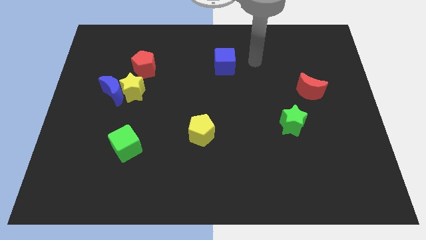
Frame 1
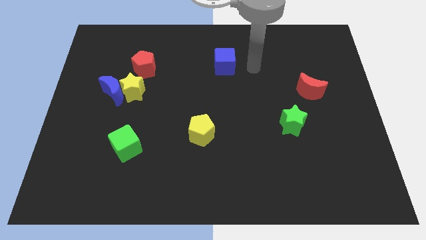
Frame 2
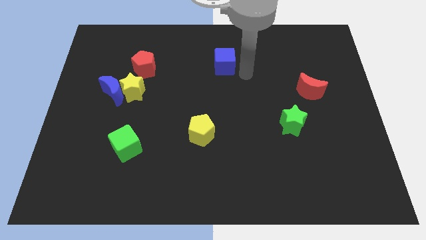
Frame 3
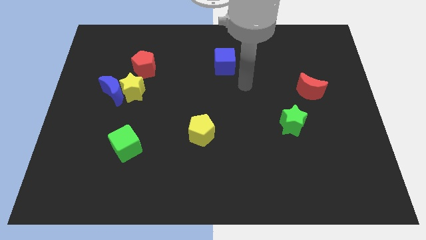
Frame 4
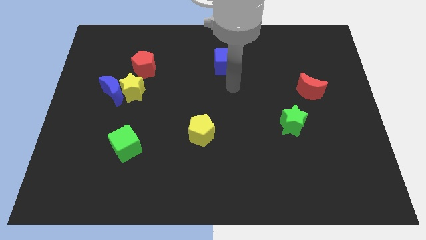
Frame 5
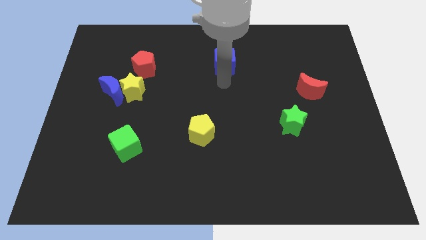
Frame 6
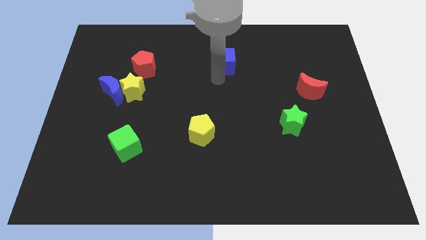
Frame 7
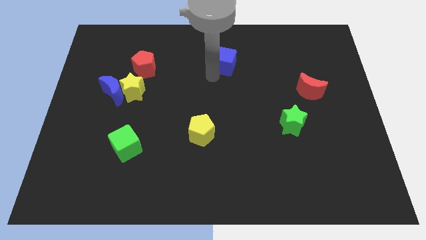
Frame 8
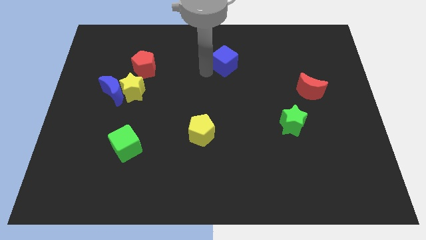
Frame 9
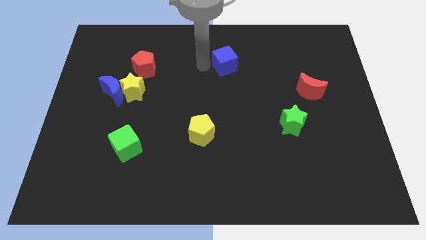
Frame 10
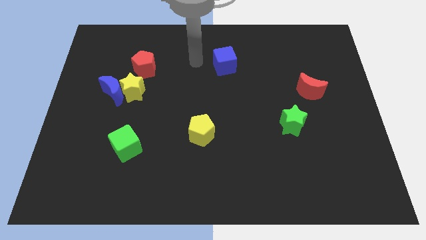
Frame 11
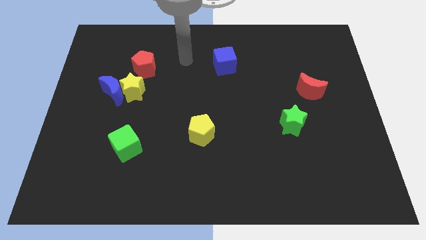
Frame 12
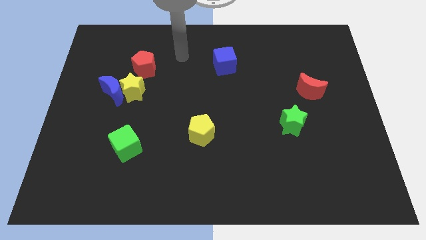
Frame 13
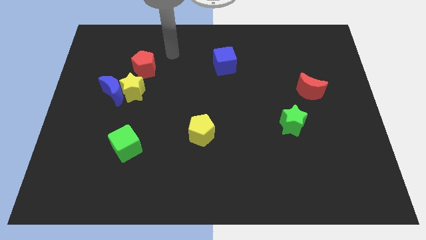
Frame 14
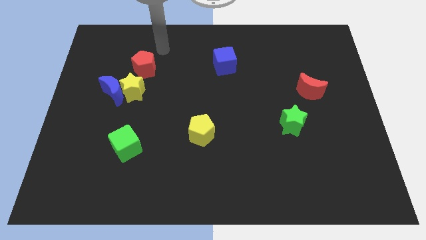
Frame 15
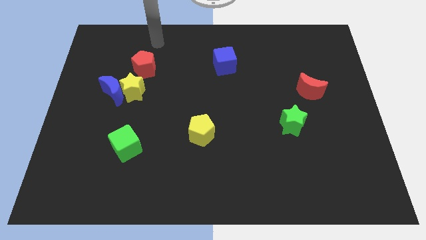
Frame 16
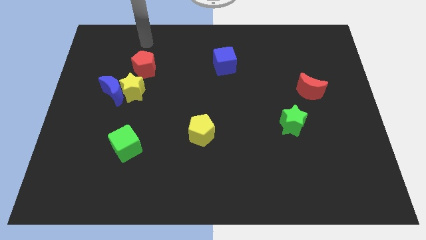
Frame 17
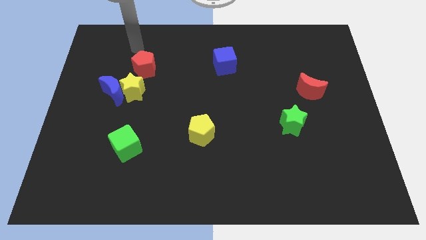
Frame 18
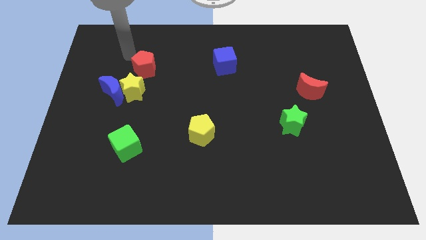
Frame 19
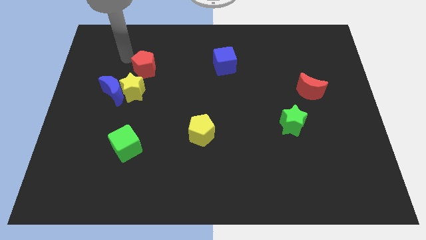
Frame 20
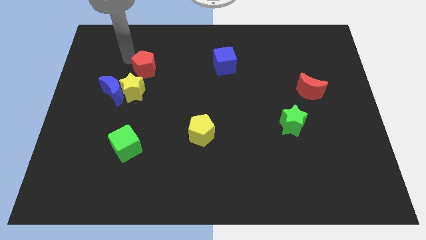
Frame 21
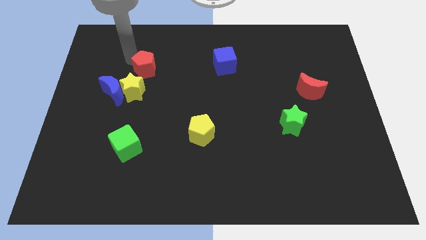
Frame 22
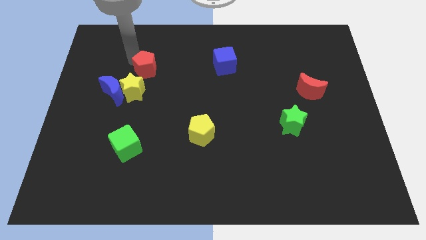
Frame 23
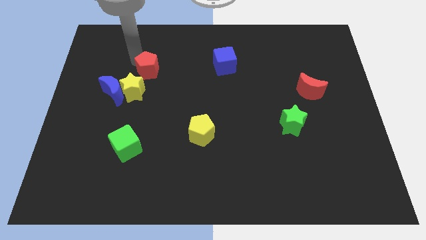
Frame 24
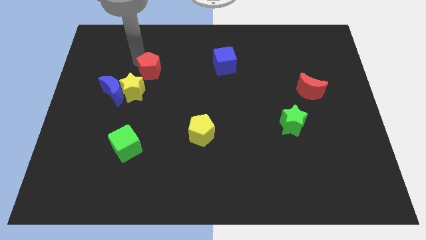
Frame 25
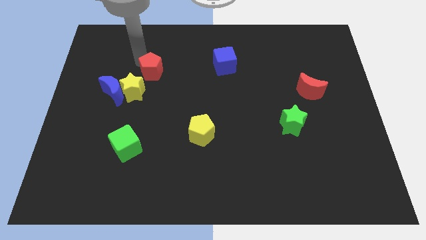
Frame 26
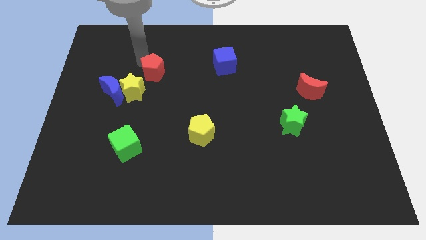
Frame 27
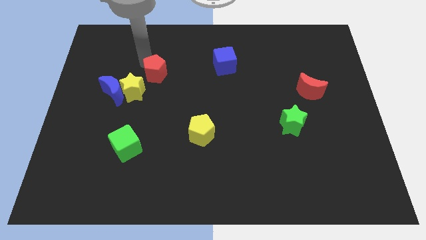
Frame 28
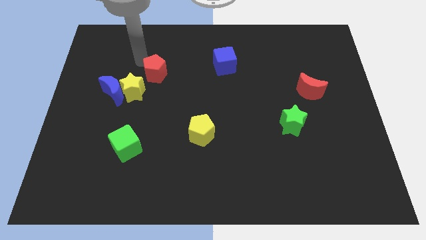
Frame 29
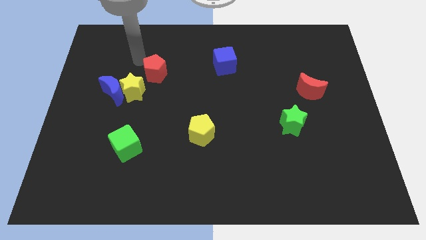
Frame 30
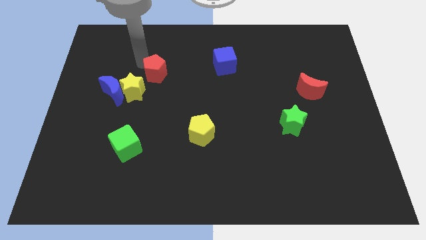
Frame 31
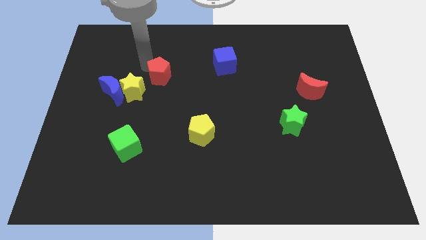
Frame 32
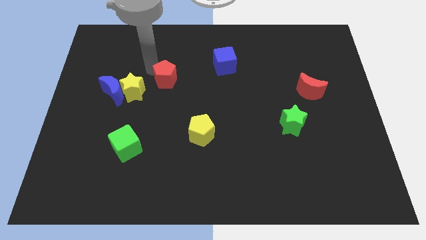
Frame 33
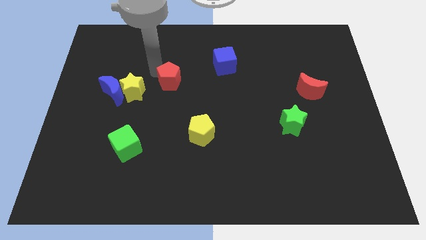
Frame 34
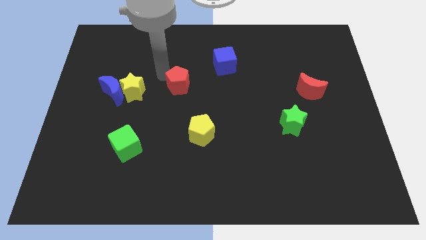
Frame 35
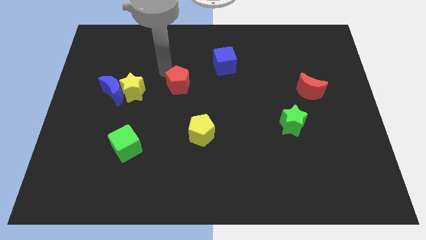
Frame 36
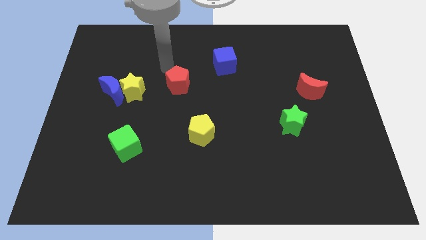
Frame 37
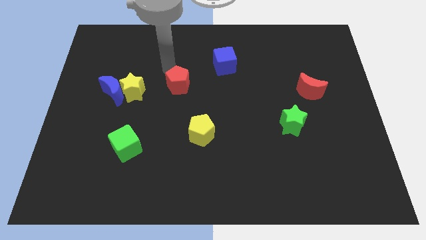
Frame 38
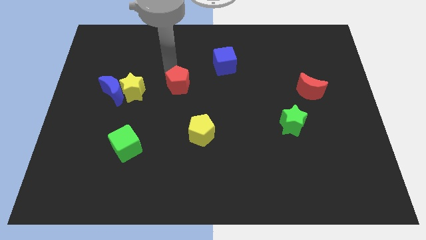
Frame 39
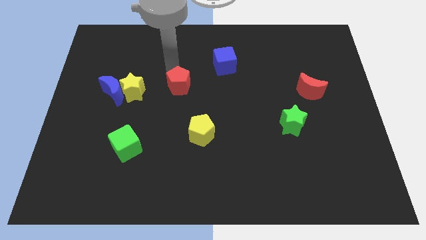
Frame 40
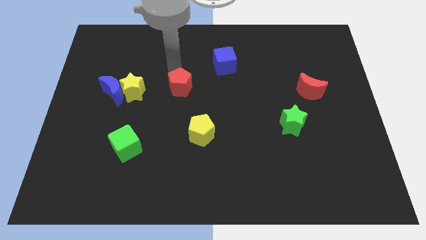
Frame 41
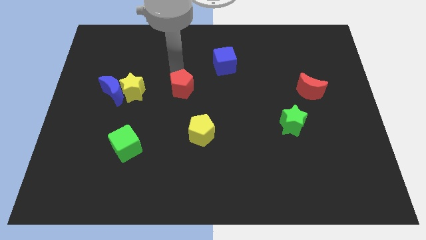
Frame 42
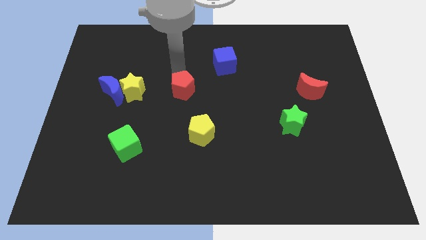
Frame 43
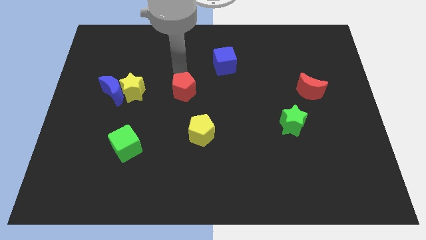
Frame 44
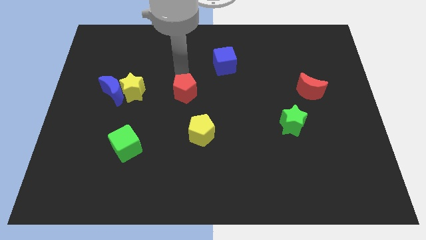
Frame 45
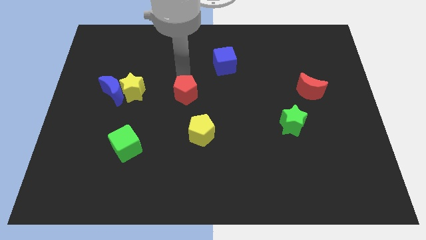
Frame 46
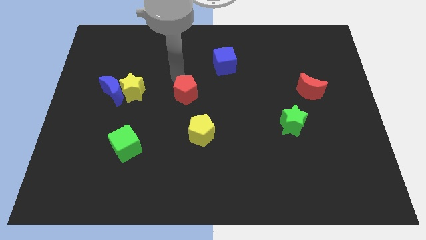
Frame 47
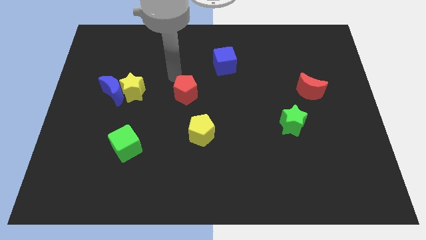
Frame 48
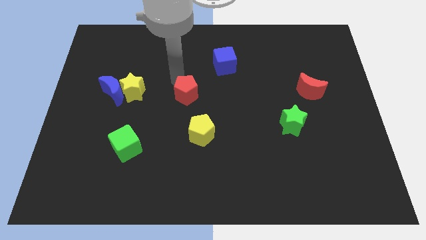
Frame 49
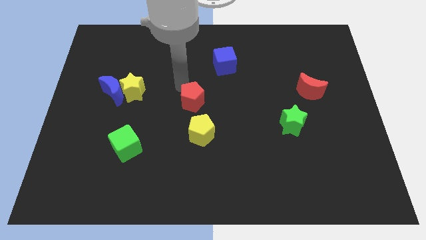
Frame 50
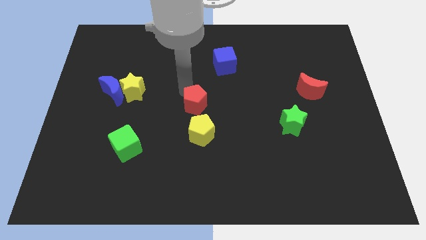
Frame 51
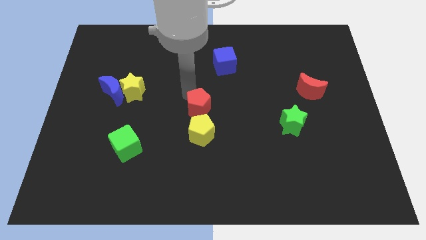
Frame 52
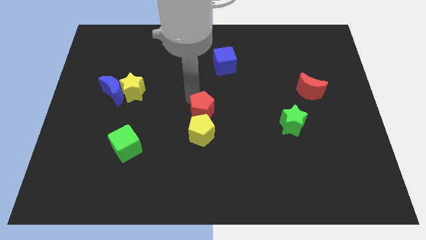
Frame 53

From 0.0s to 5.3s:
slide the red pentagon downwards and then right

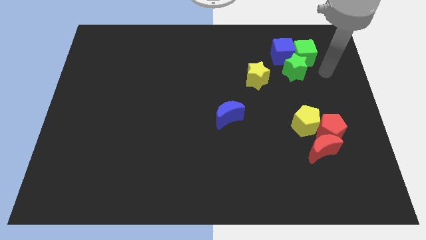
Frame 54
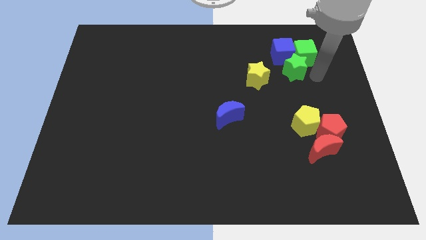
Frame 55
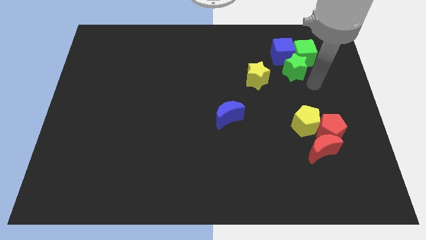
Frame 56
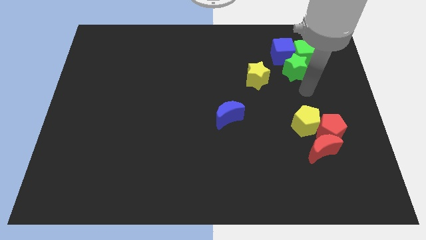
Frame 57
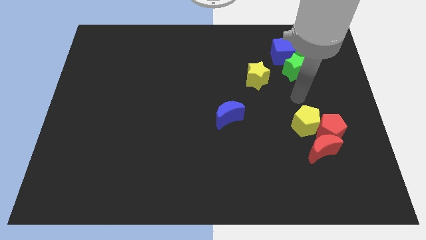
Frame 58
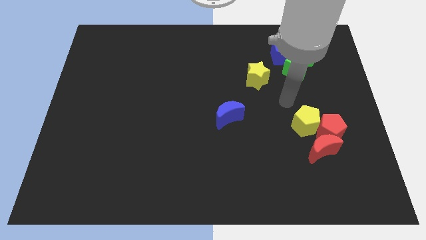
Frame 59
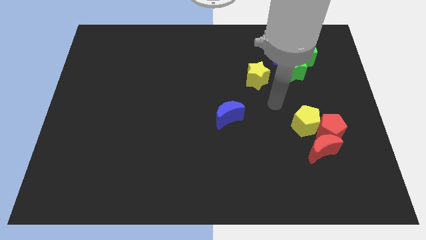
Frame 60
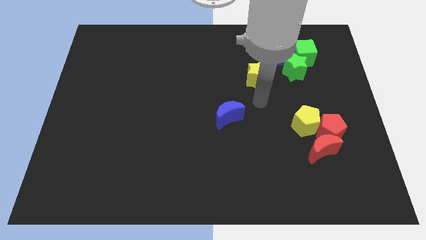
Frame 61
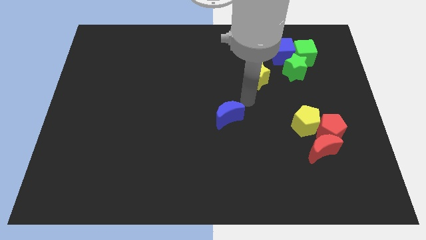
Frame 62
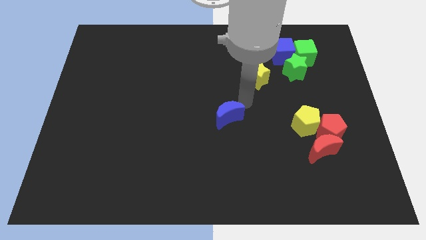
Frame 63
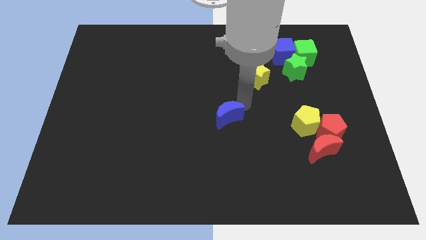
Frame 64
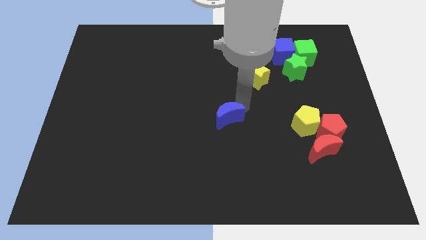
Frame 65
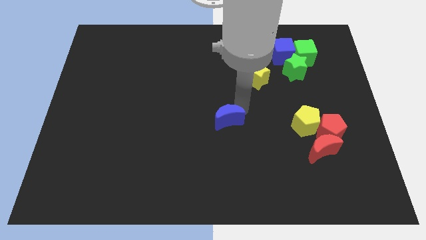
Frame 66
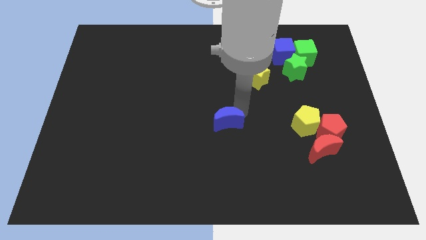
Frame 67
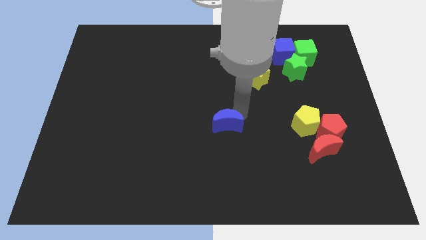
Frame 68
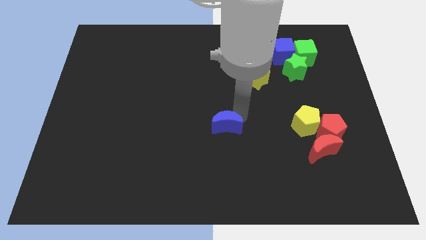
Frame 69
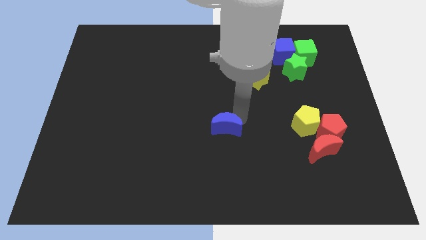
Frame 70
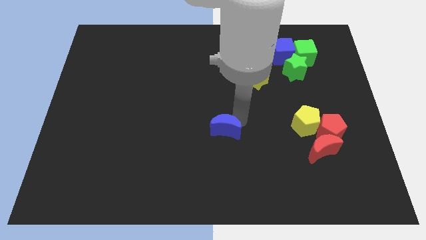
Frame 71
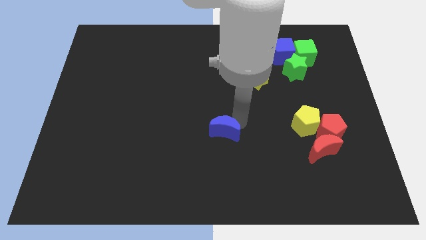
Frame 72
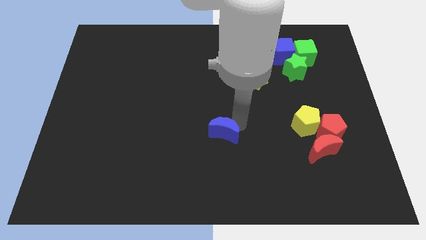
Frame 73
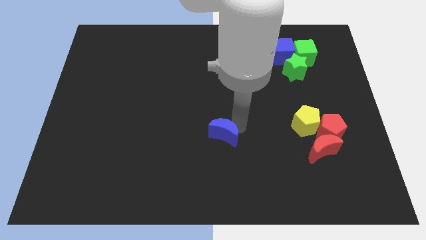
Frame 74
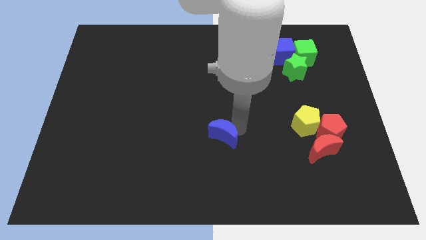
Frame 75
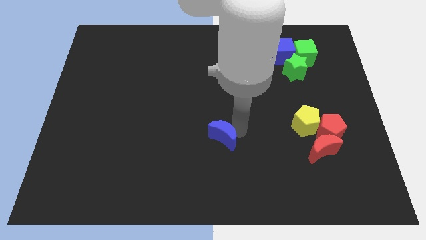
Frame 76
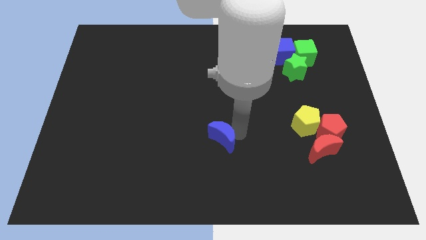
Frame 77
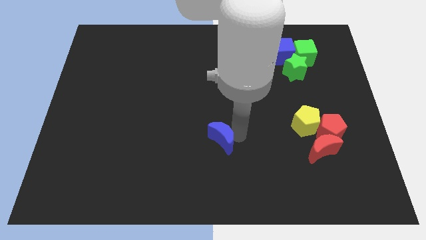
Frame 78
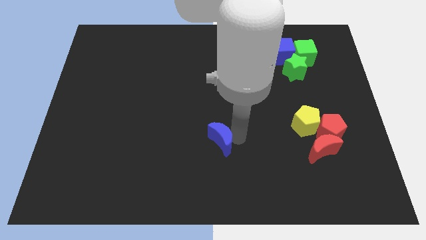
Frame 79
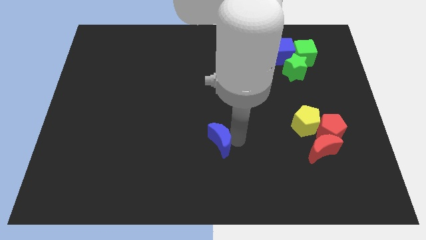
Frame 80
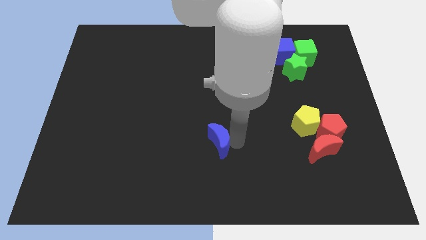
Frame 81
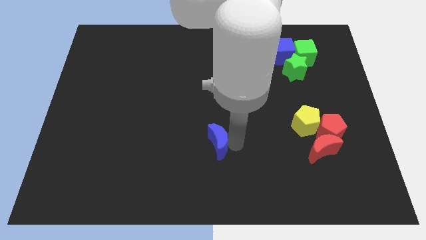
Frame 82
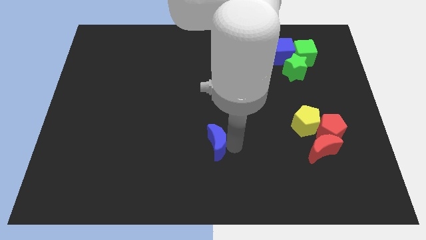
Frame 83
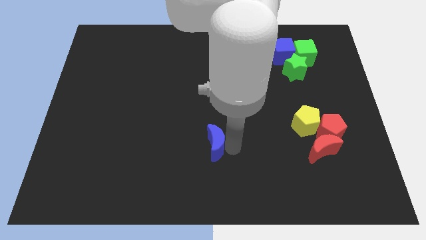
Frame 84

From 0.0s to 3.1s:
slightly push the blue moon downwards and then left
